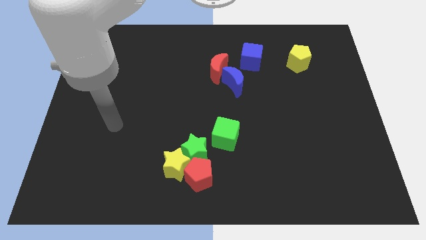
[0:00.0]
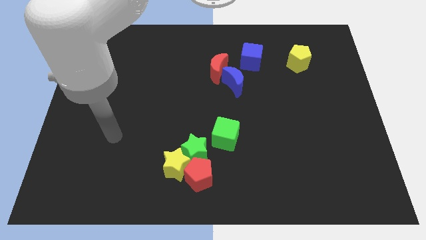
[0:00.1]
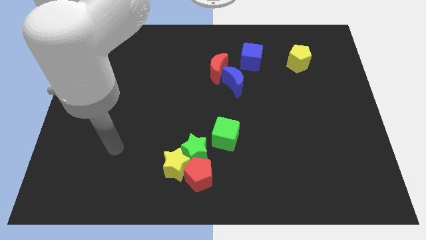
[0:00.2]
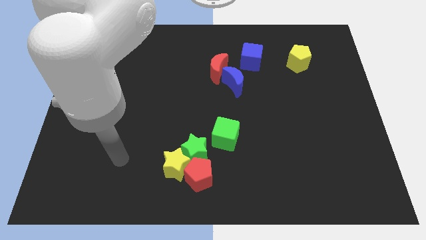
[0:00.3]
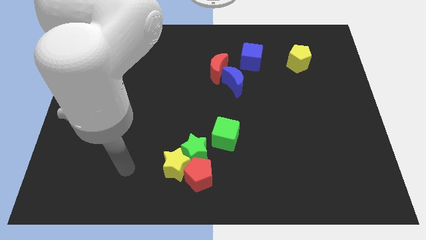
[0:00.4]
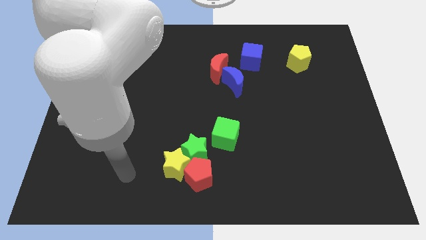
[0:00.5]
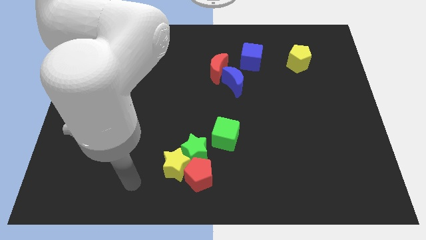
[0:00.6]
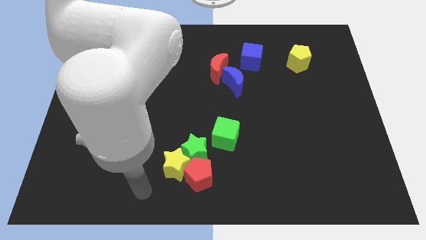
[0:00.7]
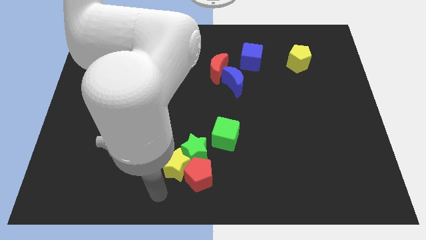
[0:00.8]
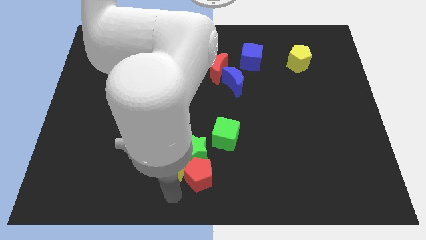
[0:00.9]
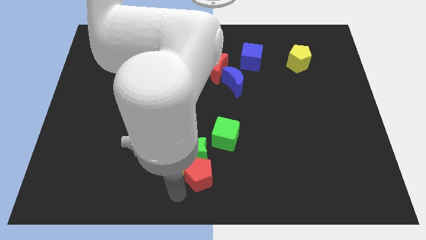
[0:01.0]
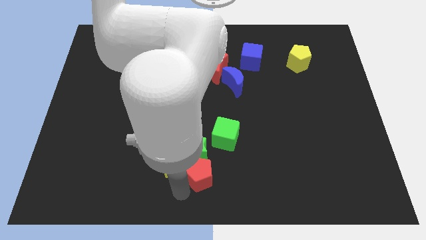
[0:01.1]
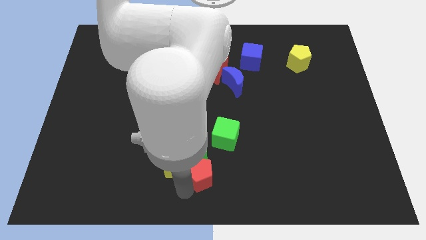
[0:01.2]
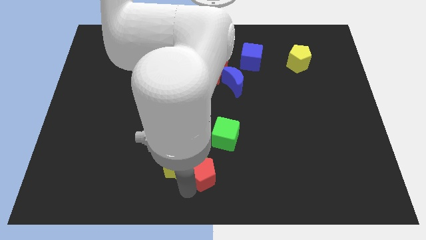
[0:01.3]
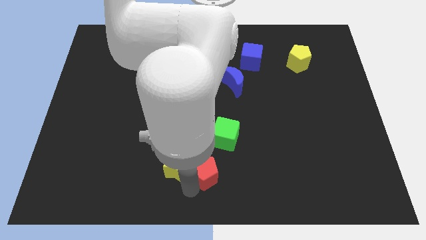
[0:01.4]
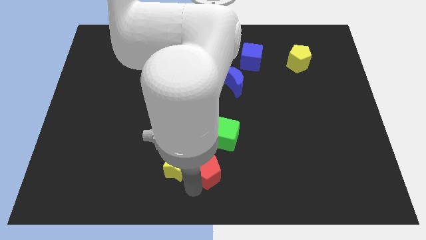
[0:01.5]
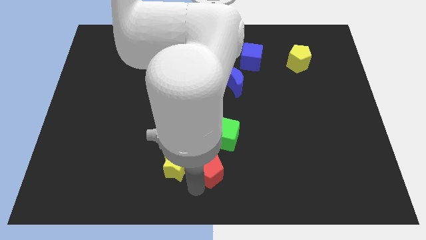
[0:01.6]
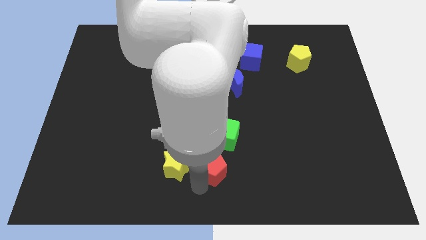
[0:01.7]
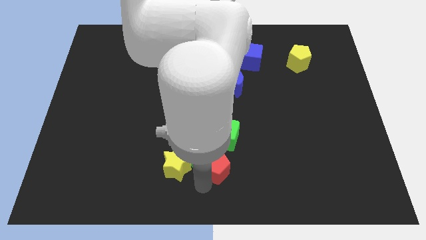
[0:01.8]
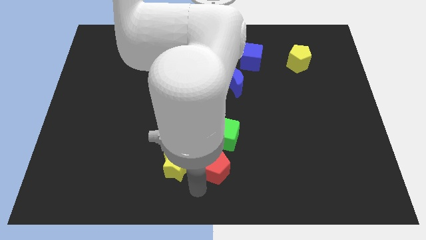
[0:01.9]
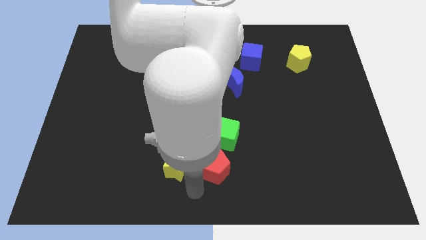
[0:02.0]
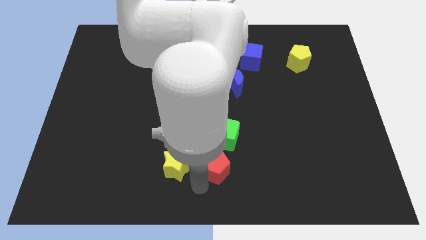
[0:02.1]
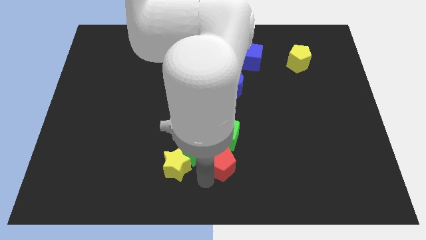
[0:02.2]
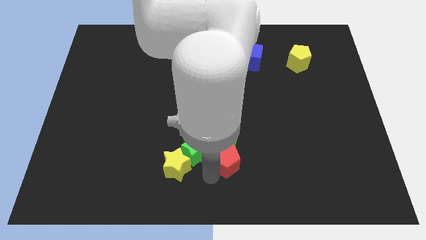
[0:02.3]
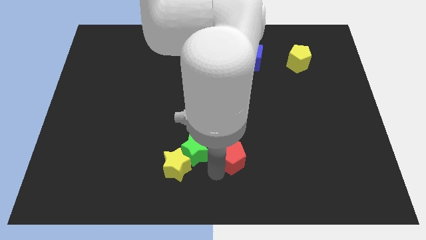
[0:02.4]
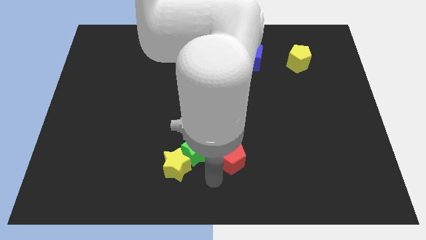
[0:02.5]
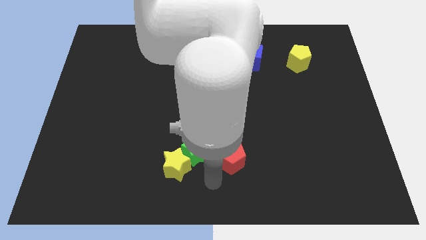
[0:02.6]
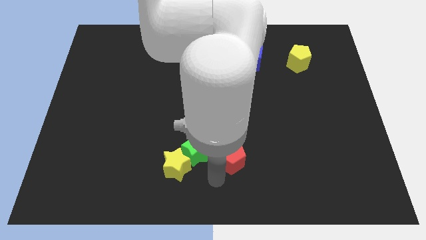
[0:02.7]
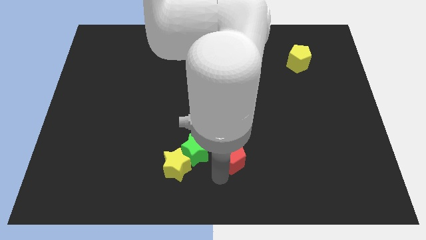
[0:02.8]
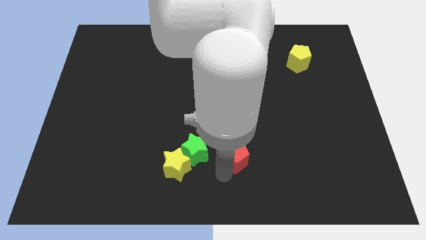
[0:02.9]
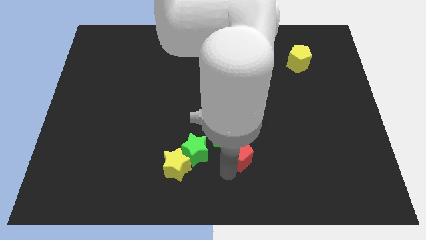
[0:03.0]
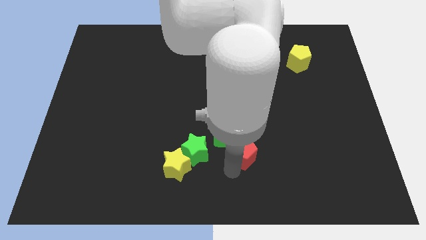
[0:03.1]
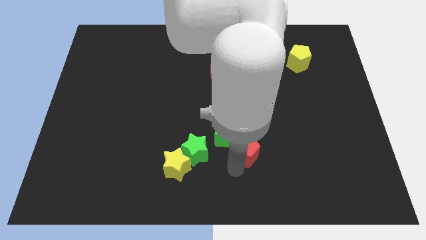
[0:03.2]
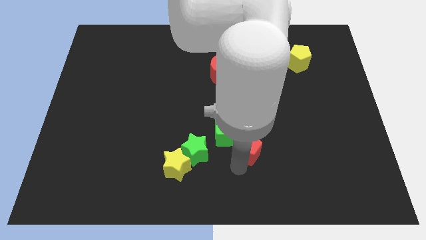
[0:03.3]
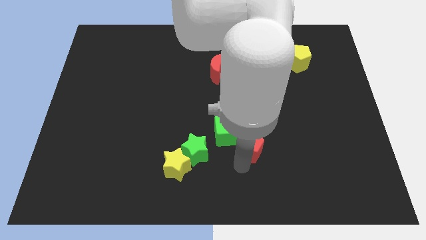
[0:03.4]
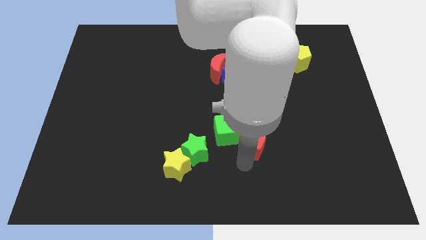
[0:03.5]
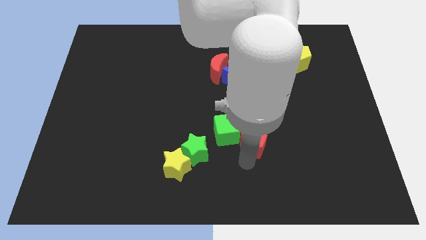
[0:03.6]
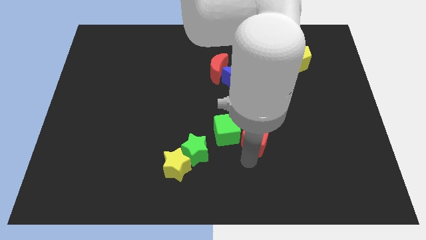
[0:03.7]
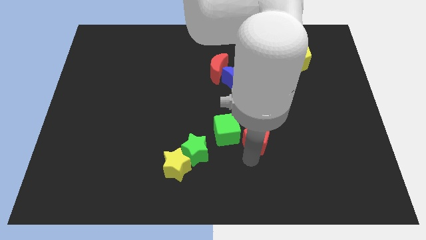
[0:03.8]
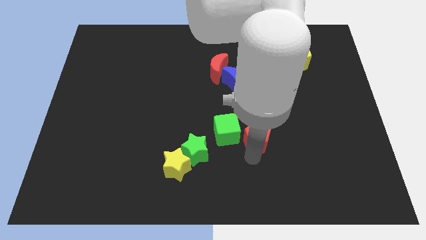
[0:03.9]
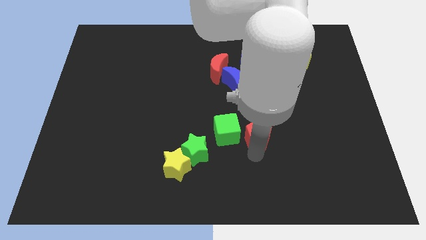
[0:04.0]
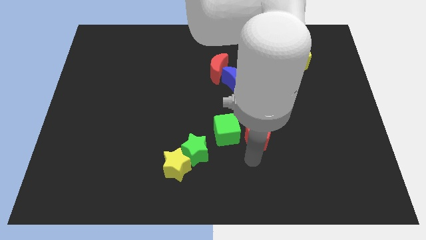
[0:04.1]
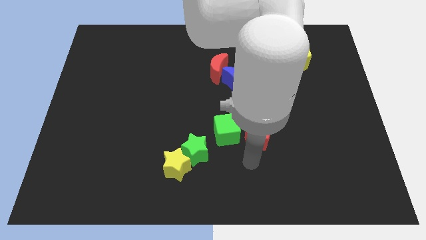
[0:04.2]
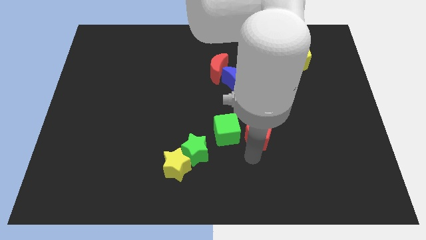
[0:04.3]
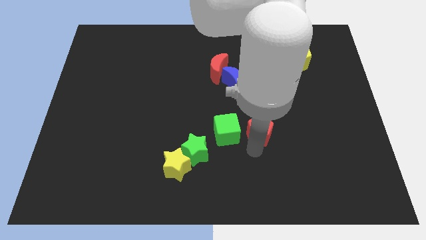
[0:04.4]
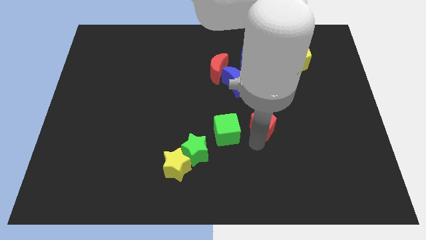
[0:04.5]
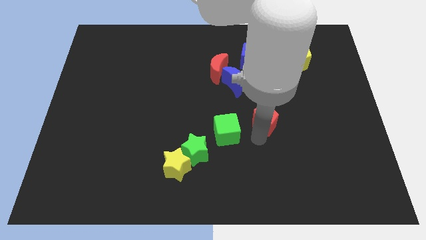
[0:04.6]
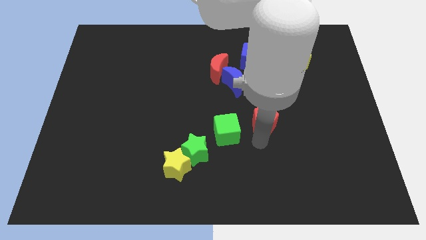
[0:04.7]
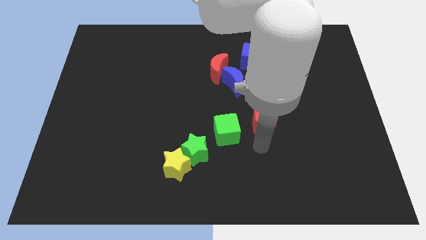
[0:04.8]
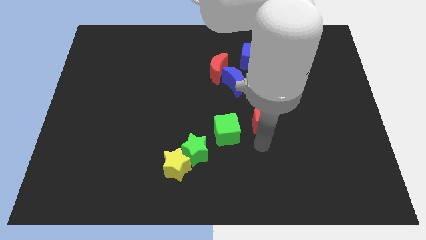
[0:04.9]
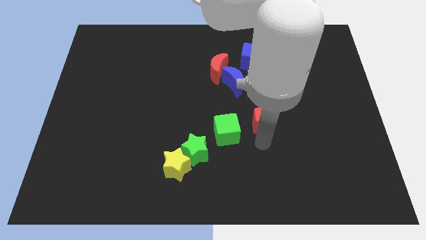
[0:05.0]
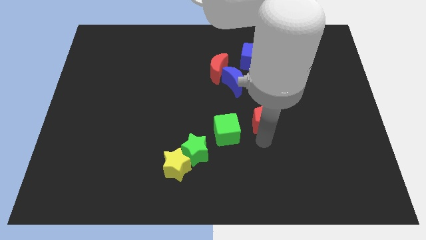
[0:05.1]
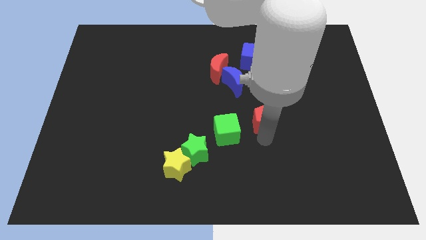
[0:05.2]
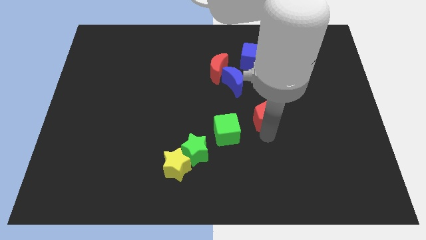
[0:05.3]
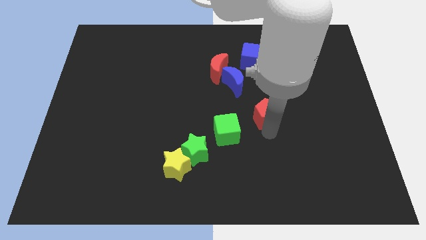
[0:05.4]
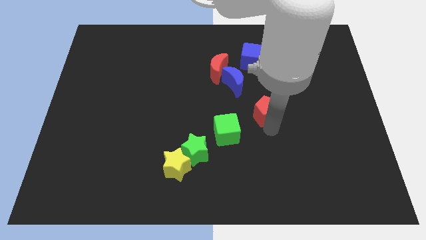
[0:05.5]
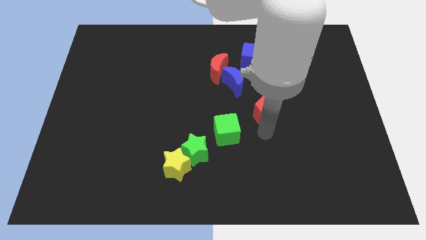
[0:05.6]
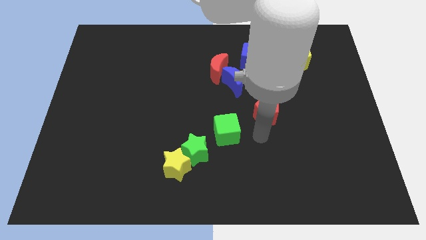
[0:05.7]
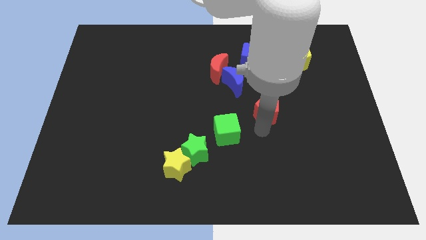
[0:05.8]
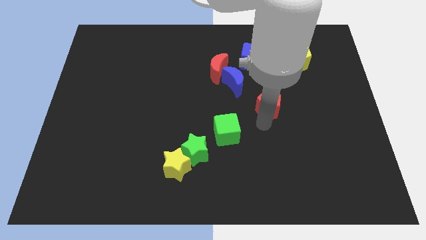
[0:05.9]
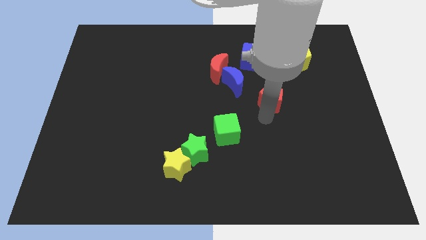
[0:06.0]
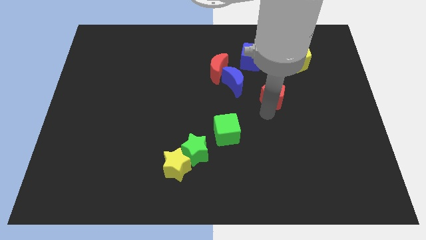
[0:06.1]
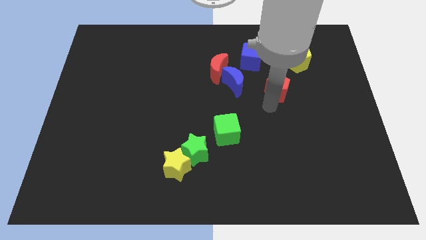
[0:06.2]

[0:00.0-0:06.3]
move the red pentagon diagonally down and to the left of the yellow pentagon
